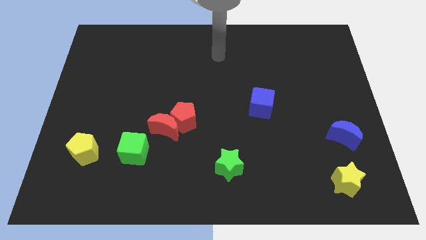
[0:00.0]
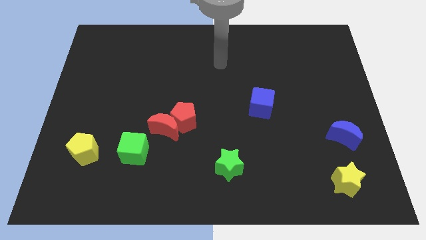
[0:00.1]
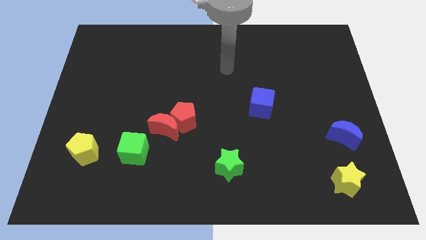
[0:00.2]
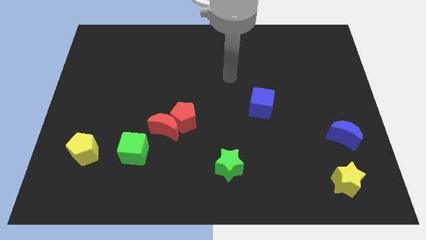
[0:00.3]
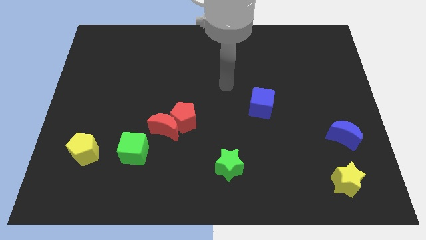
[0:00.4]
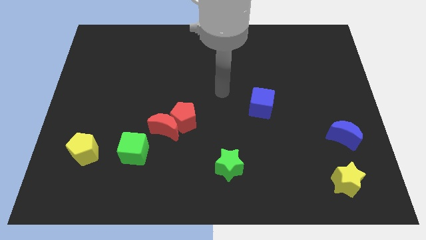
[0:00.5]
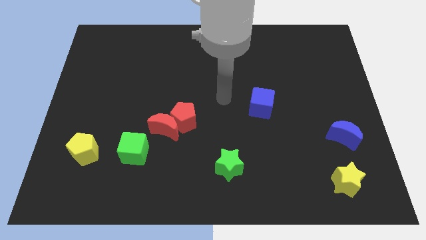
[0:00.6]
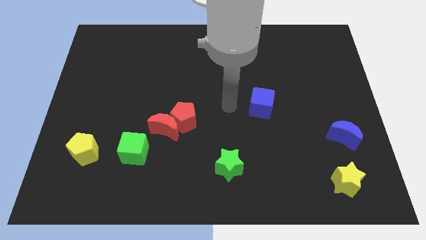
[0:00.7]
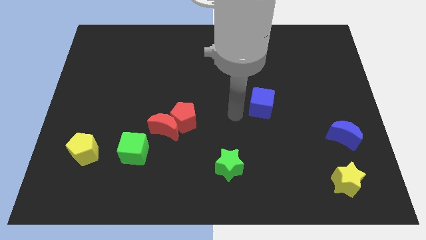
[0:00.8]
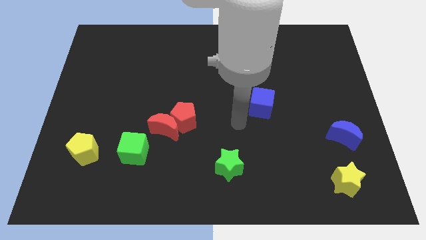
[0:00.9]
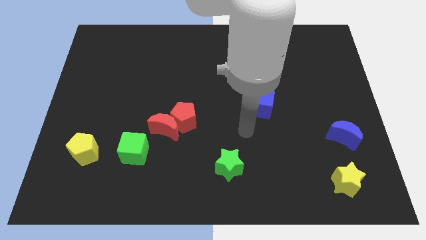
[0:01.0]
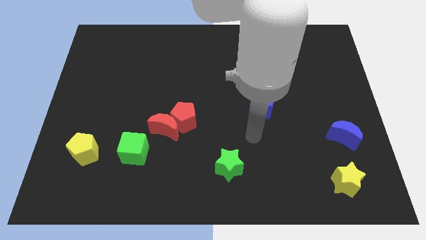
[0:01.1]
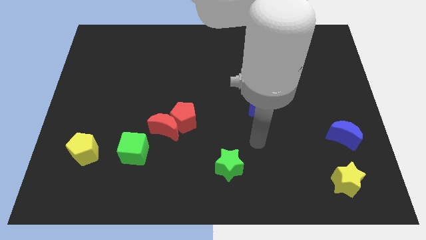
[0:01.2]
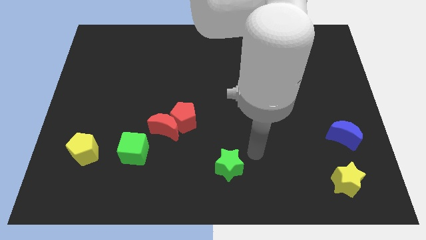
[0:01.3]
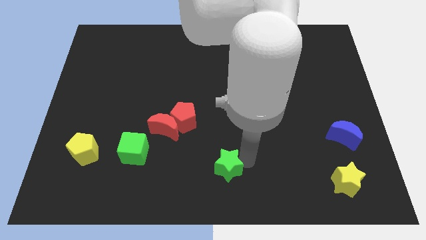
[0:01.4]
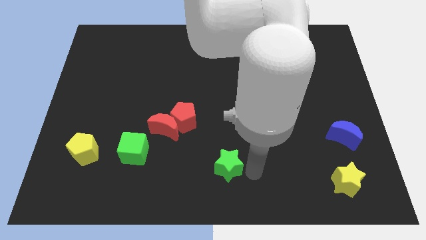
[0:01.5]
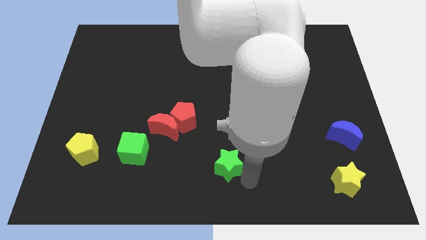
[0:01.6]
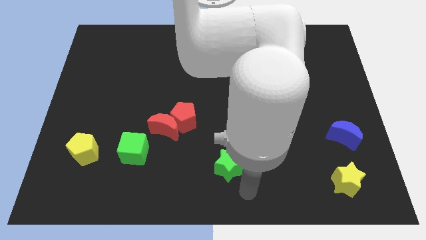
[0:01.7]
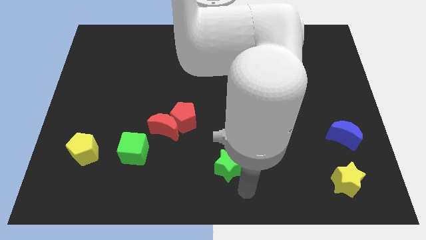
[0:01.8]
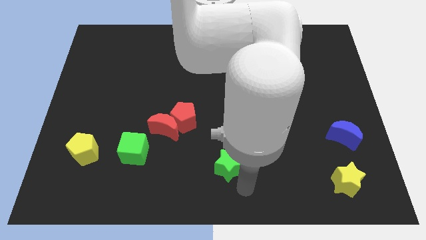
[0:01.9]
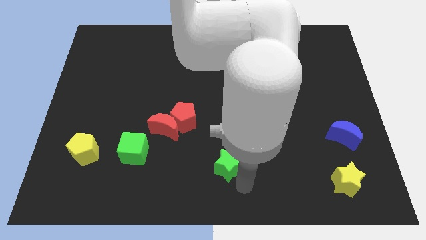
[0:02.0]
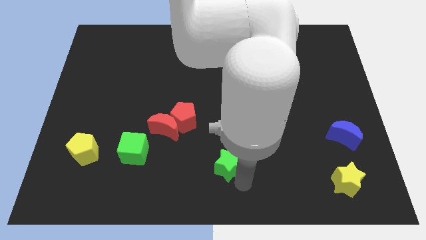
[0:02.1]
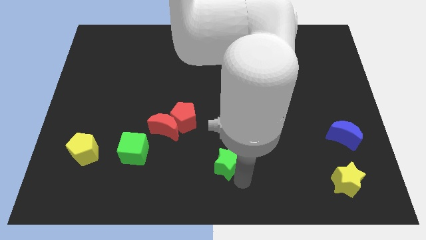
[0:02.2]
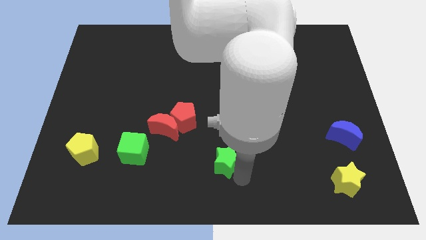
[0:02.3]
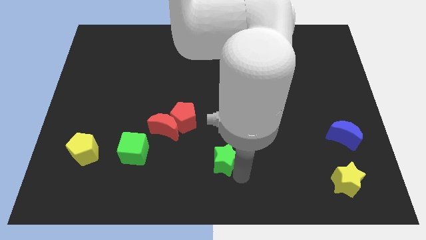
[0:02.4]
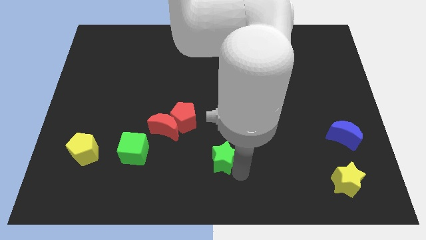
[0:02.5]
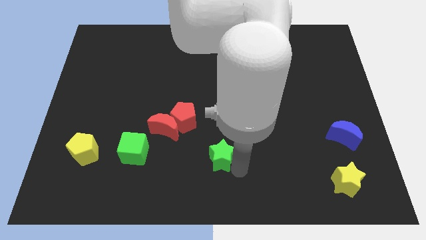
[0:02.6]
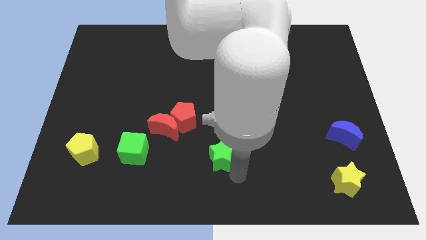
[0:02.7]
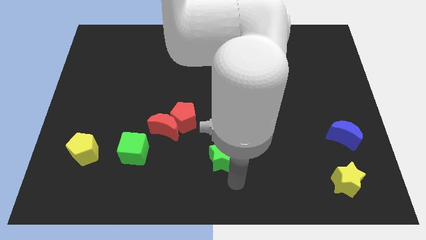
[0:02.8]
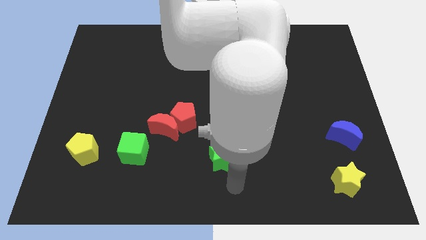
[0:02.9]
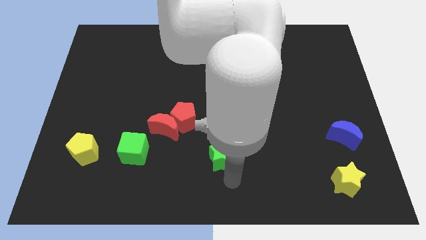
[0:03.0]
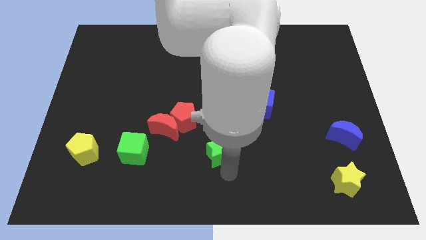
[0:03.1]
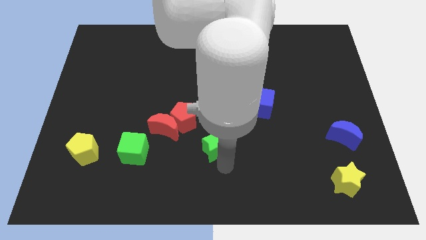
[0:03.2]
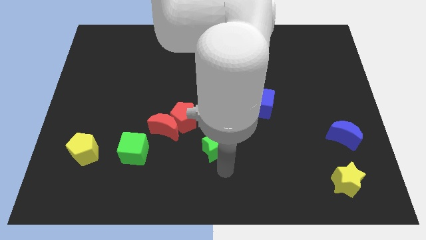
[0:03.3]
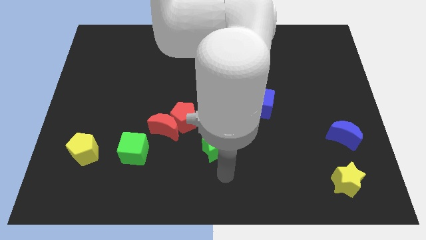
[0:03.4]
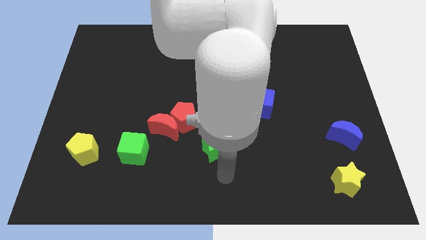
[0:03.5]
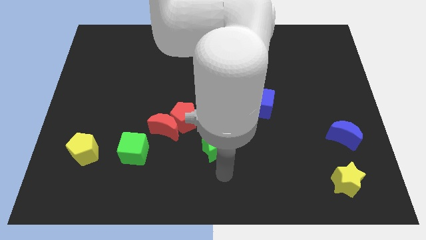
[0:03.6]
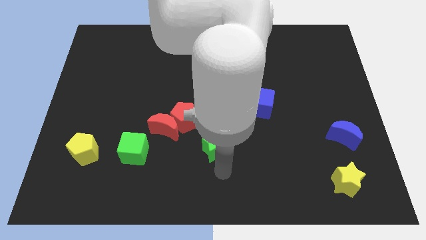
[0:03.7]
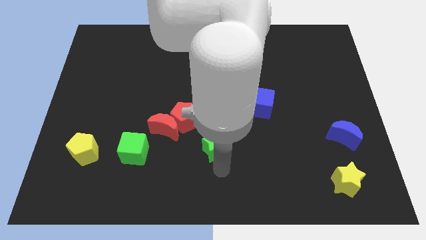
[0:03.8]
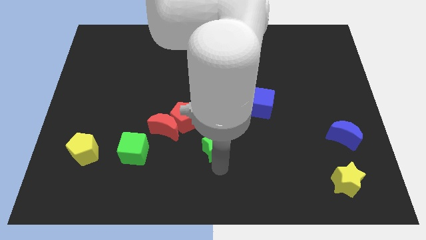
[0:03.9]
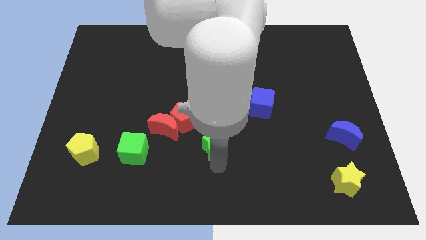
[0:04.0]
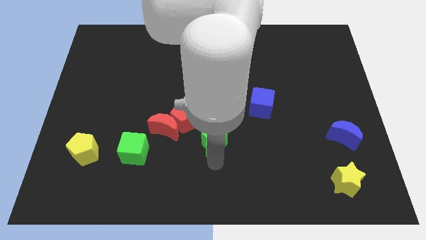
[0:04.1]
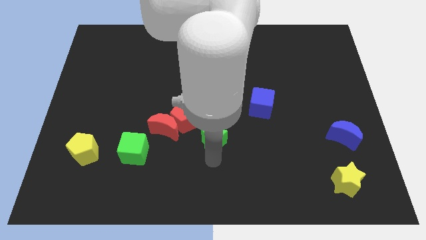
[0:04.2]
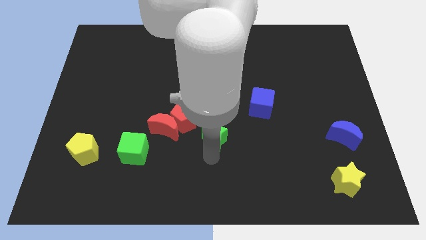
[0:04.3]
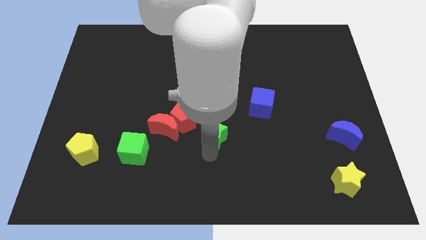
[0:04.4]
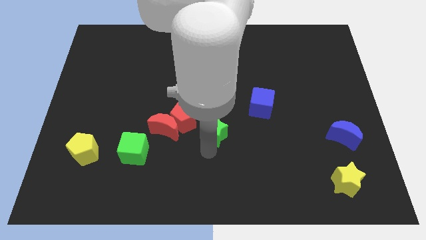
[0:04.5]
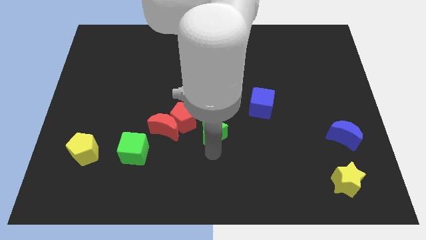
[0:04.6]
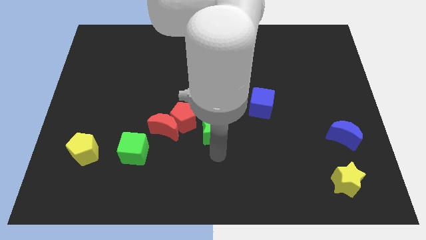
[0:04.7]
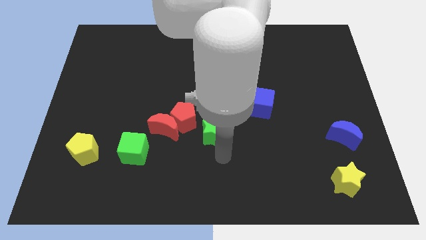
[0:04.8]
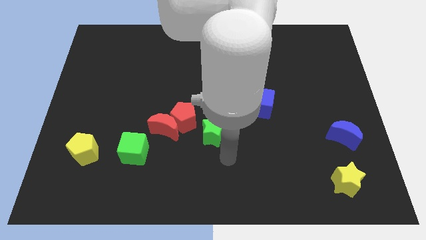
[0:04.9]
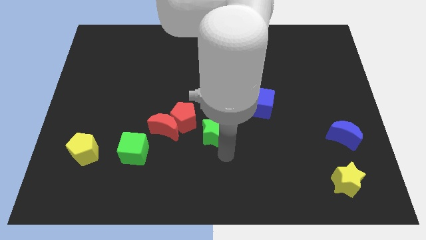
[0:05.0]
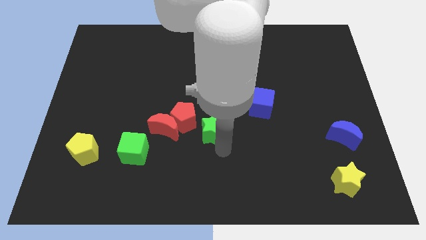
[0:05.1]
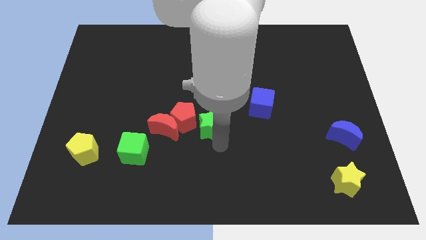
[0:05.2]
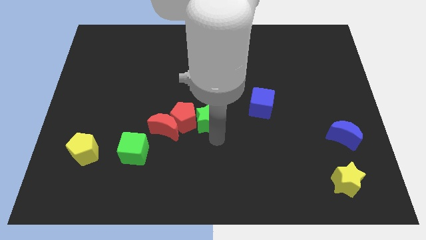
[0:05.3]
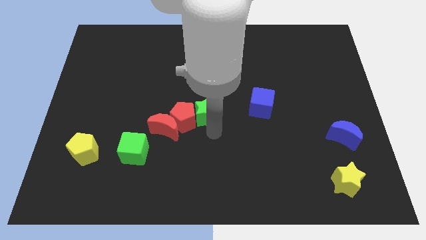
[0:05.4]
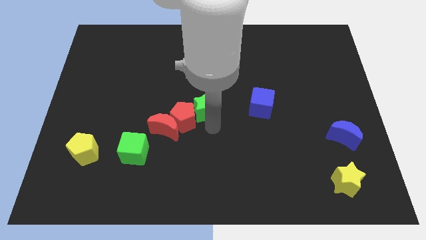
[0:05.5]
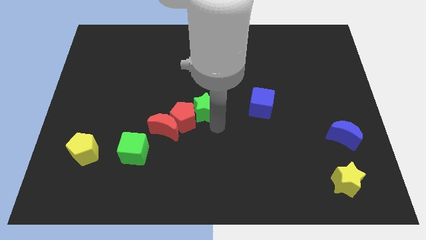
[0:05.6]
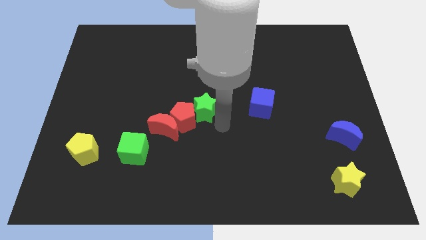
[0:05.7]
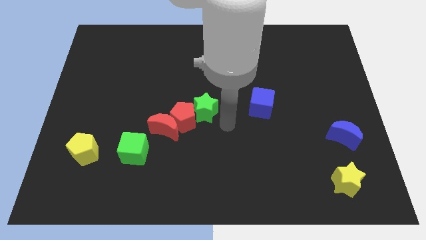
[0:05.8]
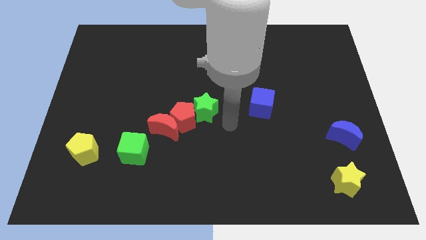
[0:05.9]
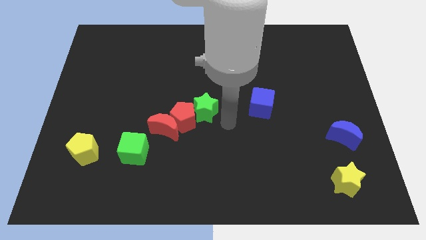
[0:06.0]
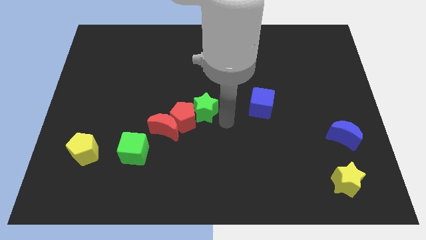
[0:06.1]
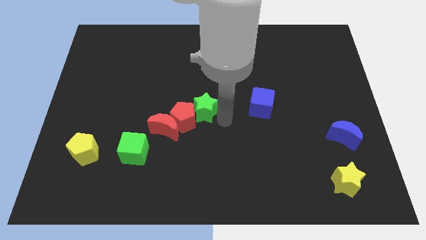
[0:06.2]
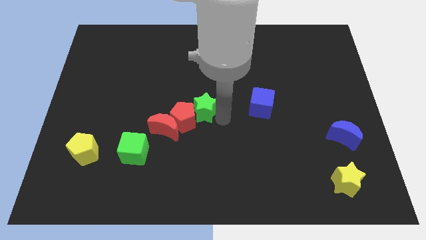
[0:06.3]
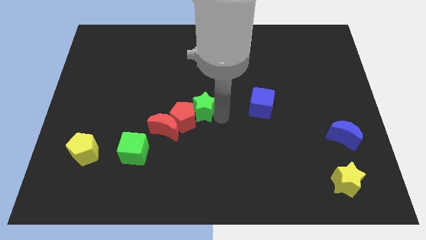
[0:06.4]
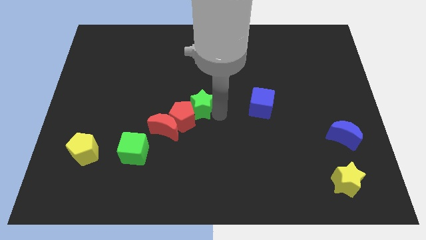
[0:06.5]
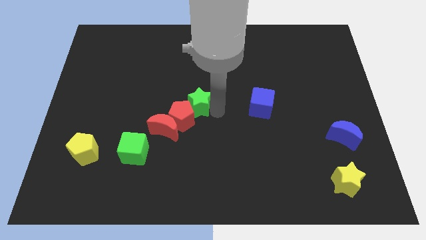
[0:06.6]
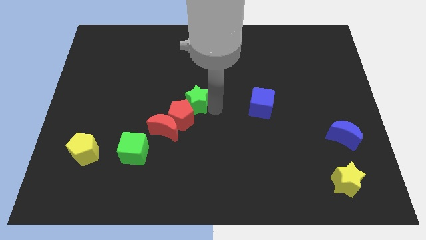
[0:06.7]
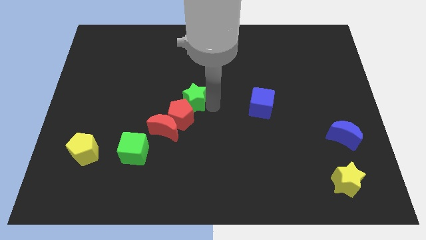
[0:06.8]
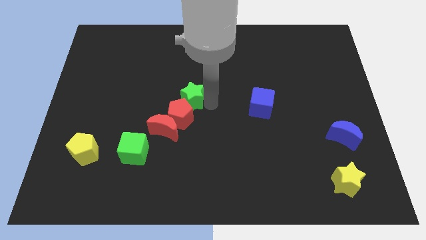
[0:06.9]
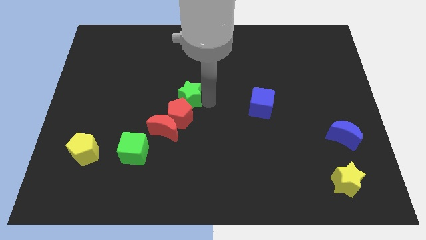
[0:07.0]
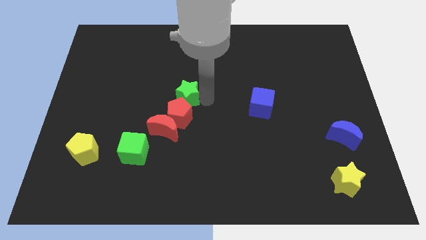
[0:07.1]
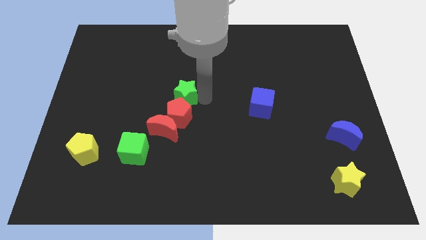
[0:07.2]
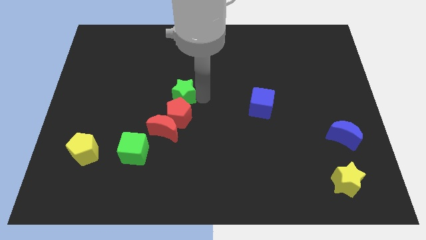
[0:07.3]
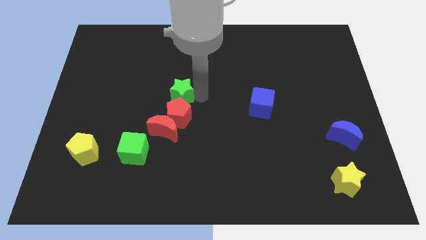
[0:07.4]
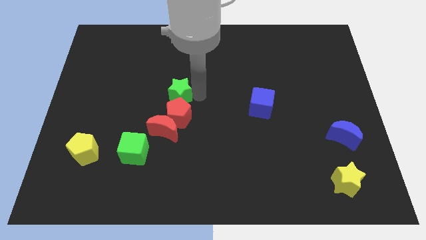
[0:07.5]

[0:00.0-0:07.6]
move the green star upwards and left
